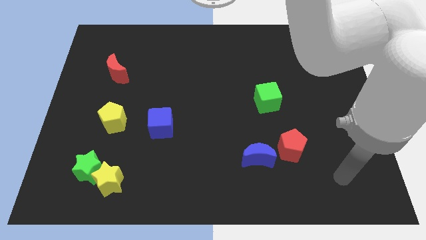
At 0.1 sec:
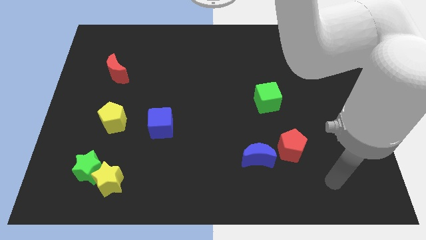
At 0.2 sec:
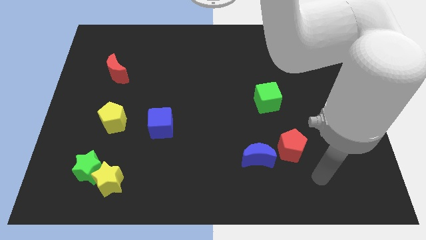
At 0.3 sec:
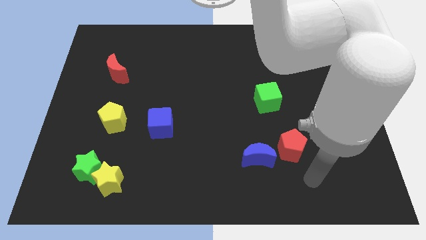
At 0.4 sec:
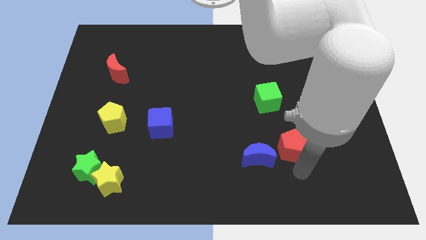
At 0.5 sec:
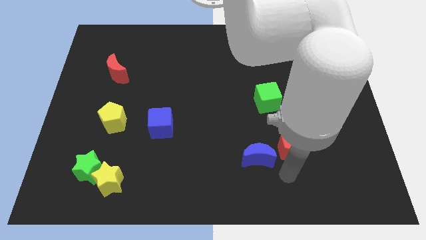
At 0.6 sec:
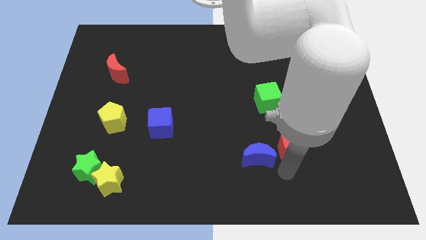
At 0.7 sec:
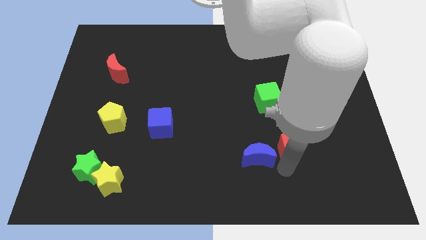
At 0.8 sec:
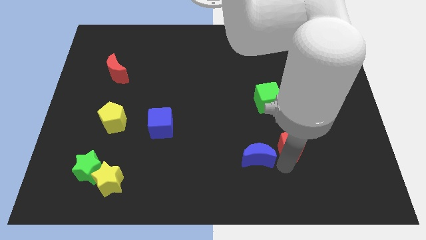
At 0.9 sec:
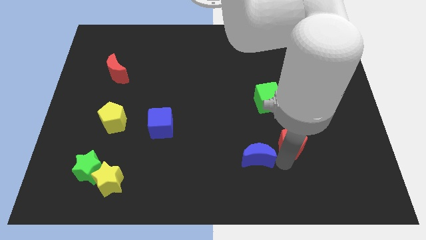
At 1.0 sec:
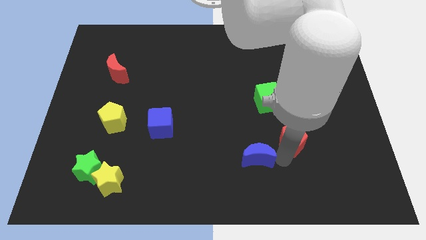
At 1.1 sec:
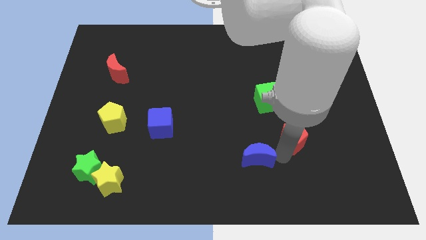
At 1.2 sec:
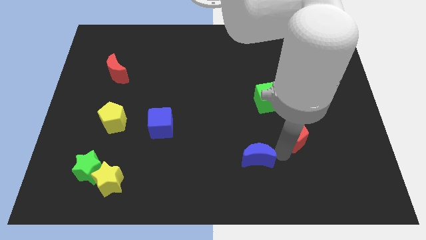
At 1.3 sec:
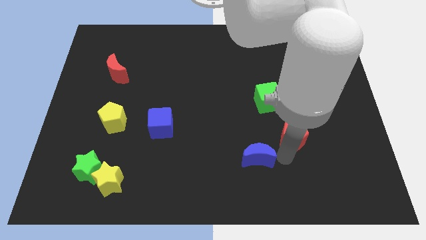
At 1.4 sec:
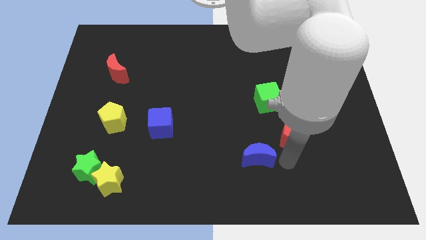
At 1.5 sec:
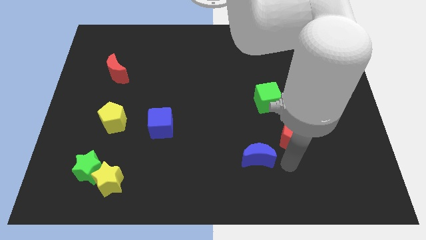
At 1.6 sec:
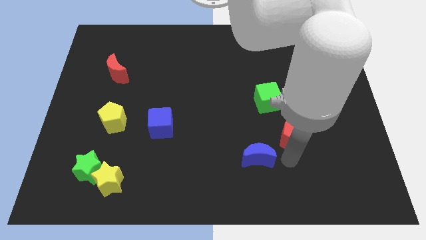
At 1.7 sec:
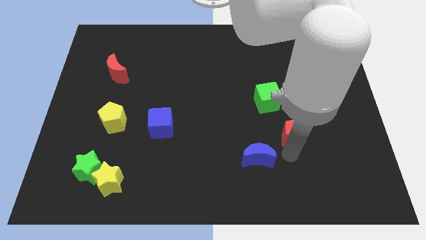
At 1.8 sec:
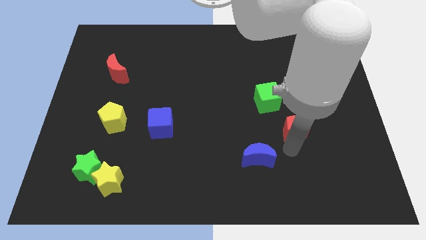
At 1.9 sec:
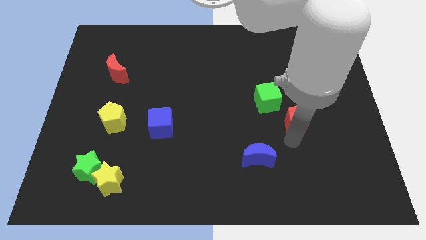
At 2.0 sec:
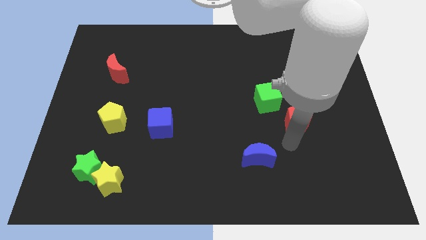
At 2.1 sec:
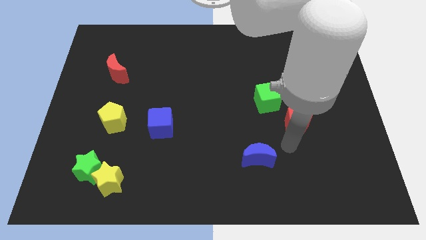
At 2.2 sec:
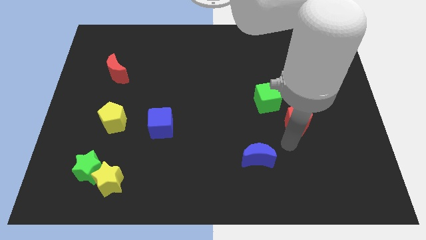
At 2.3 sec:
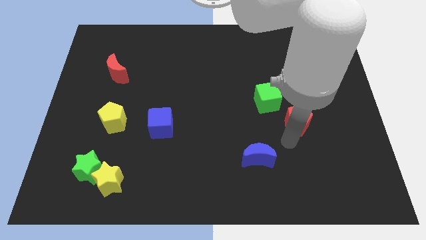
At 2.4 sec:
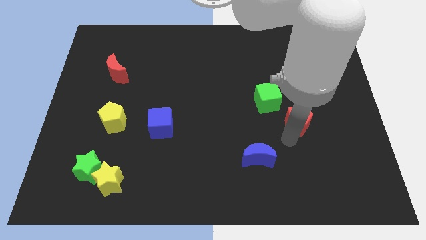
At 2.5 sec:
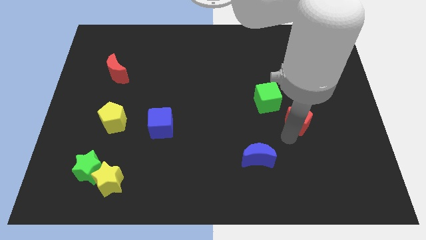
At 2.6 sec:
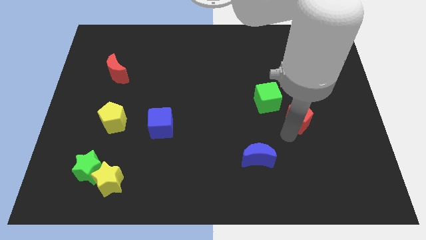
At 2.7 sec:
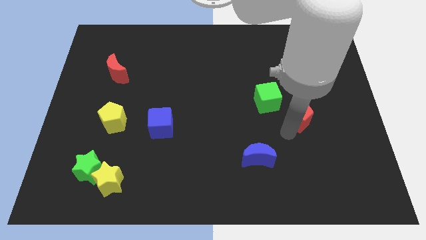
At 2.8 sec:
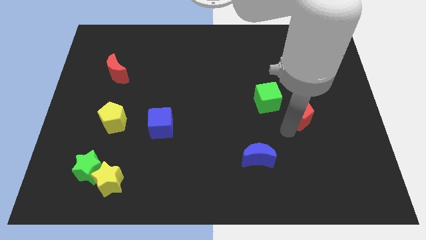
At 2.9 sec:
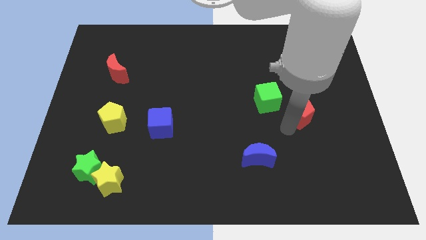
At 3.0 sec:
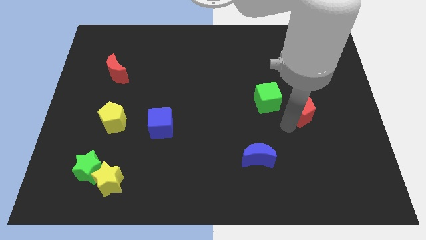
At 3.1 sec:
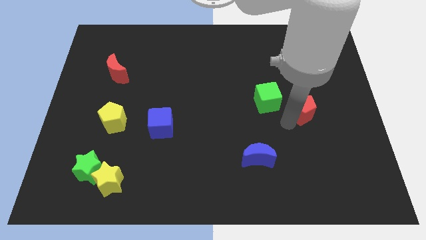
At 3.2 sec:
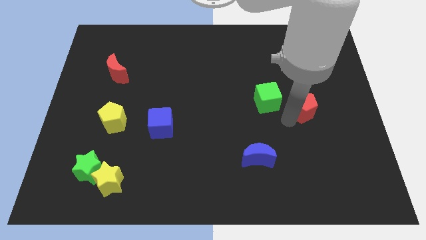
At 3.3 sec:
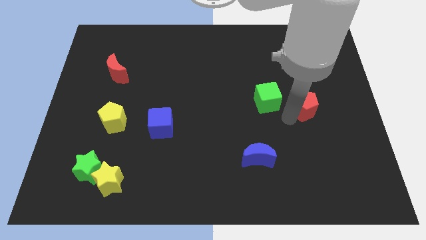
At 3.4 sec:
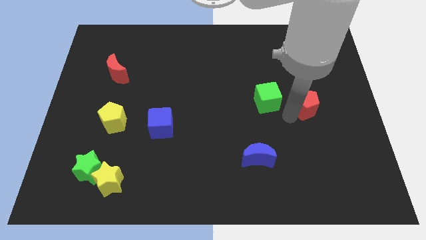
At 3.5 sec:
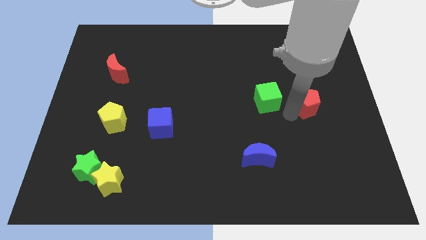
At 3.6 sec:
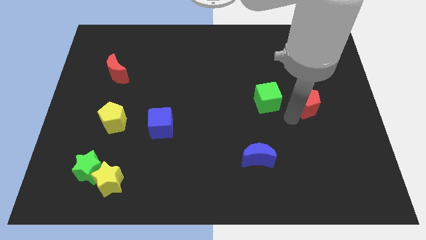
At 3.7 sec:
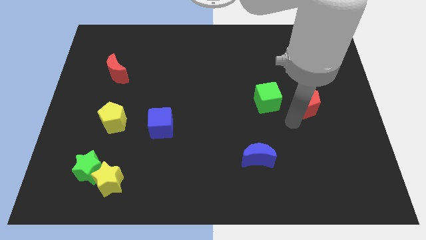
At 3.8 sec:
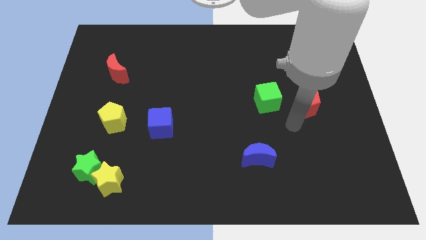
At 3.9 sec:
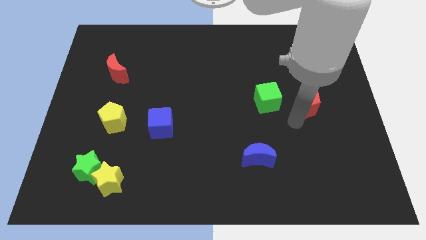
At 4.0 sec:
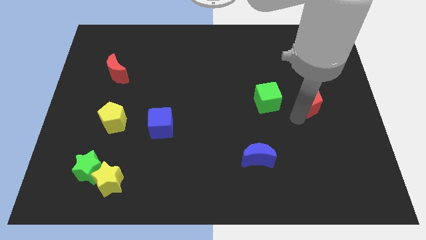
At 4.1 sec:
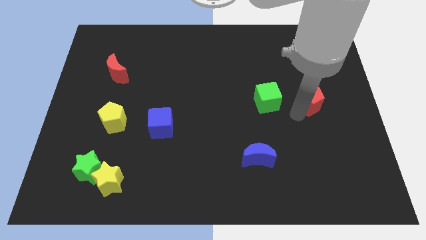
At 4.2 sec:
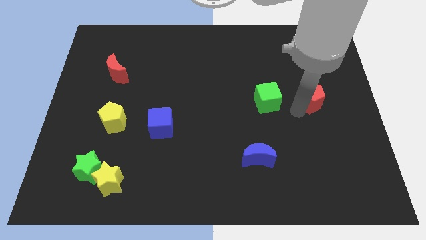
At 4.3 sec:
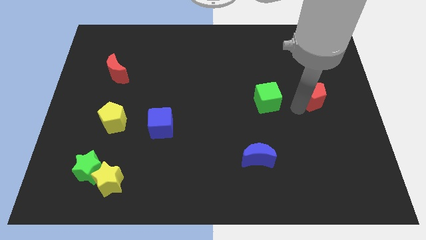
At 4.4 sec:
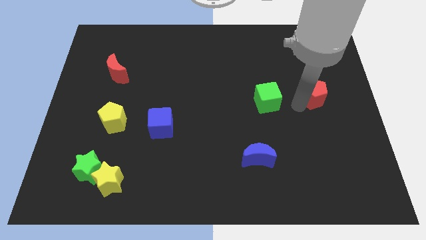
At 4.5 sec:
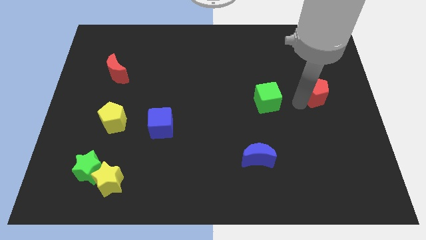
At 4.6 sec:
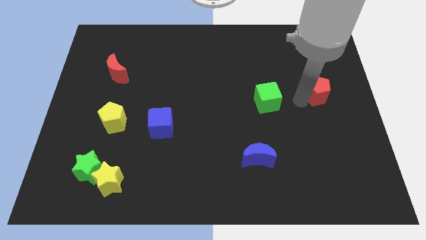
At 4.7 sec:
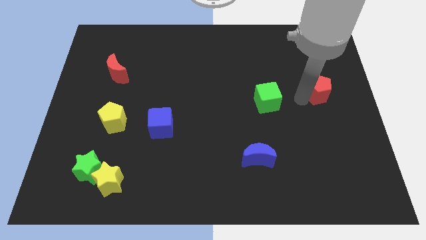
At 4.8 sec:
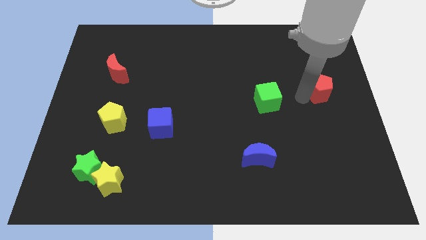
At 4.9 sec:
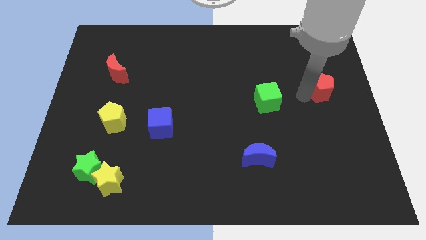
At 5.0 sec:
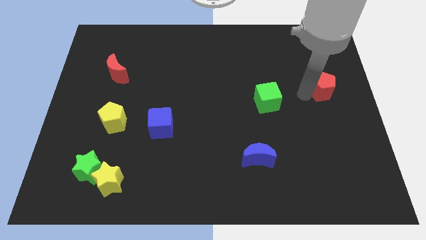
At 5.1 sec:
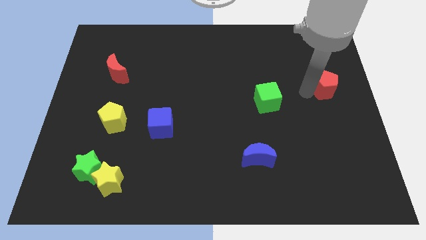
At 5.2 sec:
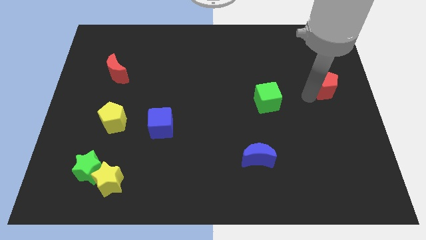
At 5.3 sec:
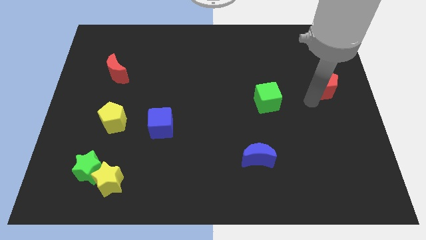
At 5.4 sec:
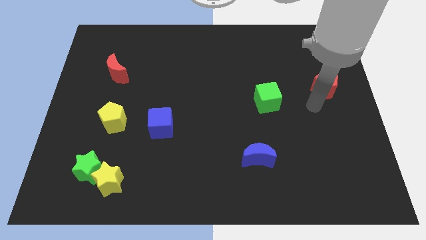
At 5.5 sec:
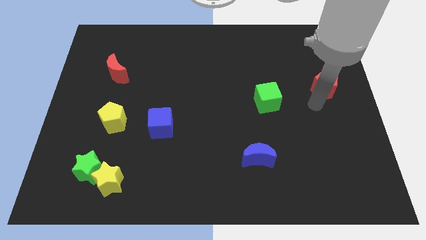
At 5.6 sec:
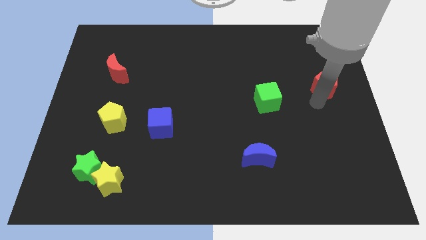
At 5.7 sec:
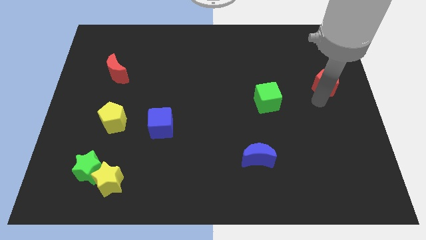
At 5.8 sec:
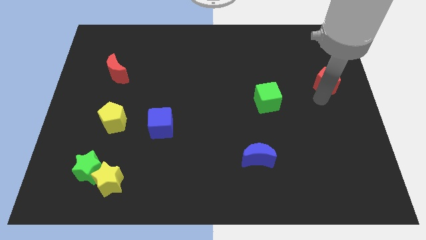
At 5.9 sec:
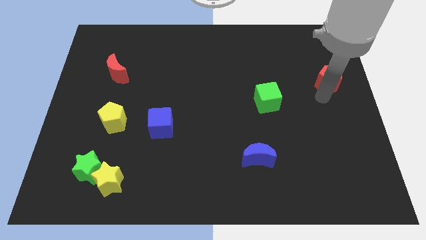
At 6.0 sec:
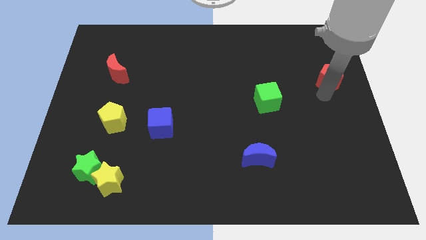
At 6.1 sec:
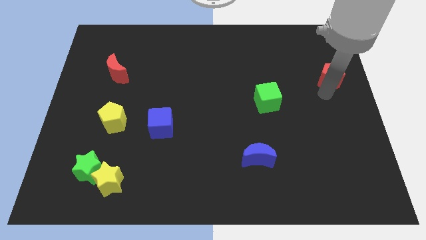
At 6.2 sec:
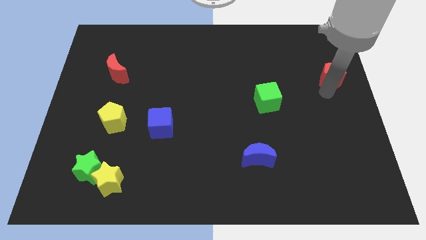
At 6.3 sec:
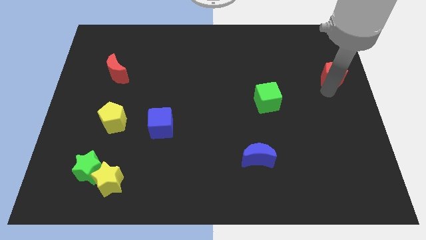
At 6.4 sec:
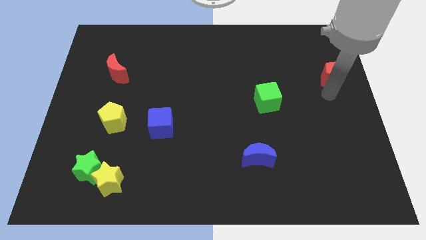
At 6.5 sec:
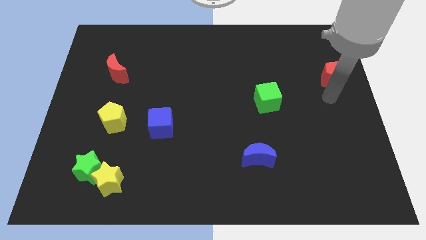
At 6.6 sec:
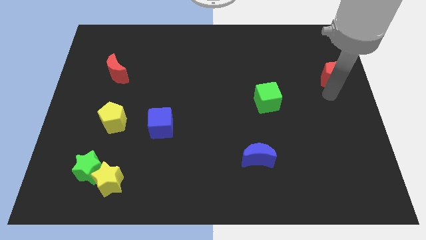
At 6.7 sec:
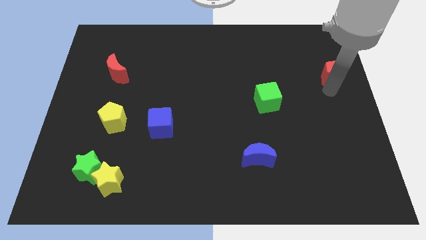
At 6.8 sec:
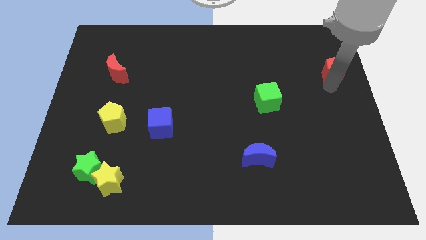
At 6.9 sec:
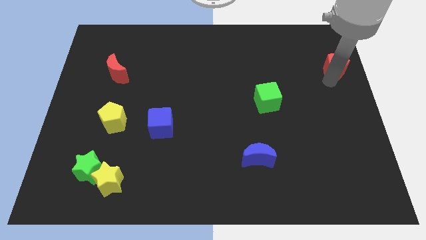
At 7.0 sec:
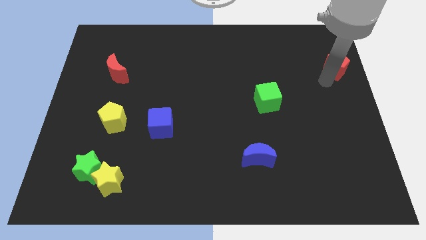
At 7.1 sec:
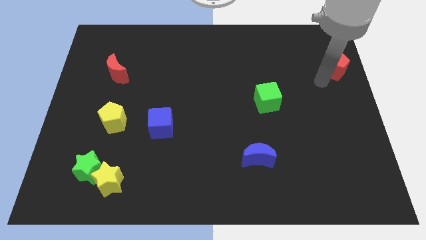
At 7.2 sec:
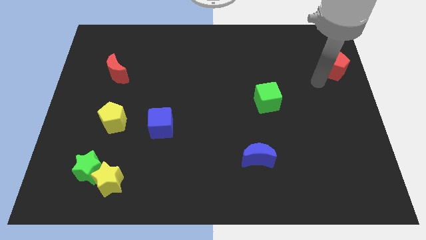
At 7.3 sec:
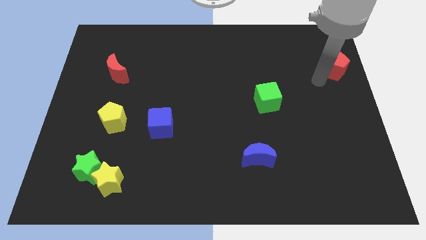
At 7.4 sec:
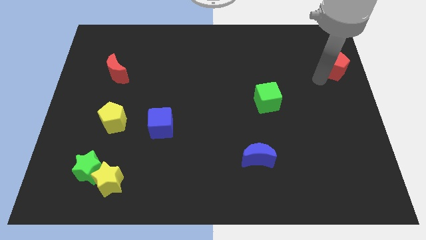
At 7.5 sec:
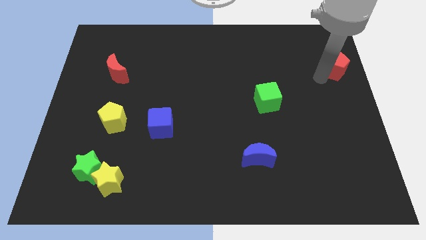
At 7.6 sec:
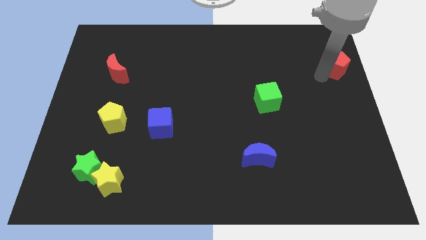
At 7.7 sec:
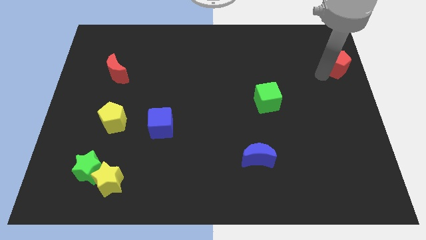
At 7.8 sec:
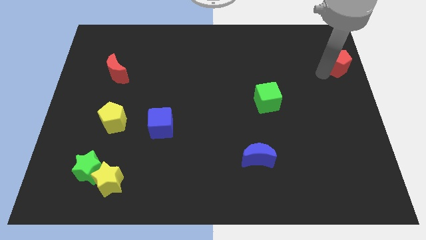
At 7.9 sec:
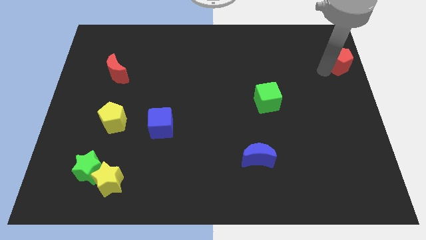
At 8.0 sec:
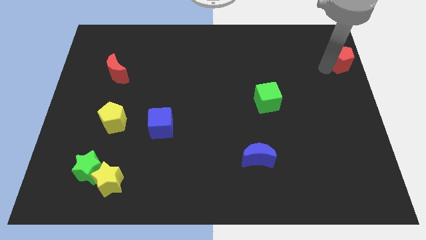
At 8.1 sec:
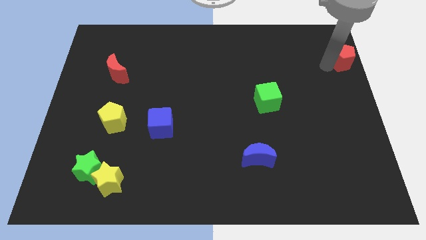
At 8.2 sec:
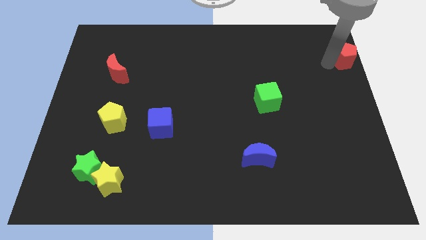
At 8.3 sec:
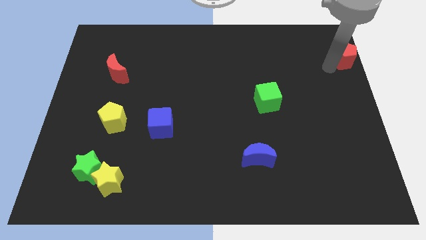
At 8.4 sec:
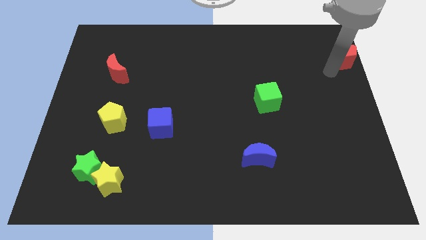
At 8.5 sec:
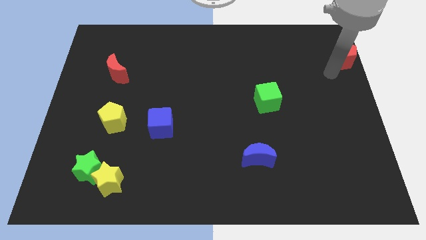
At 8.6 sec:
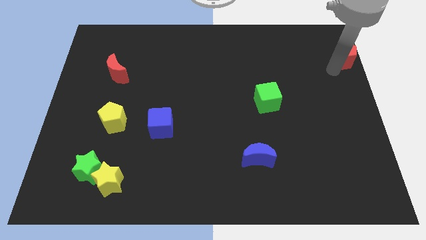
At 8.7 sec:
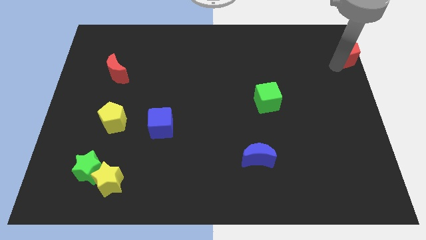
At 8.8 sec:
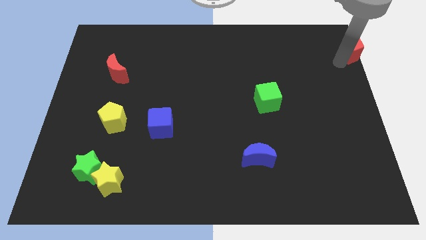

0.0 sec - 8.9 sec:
slide the red pentagon to the top right of the board
